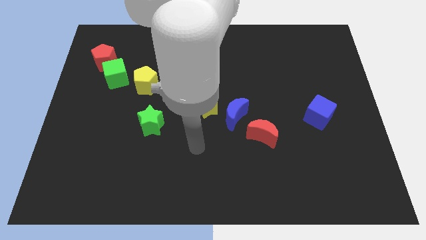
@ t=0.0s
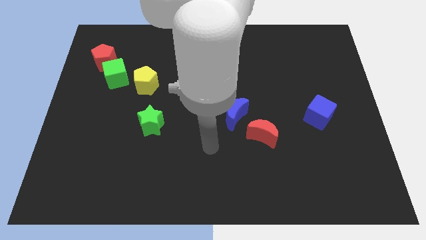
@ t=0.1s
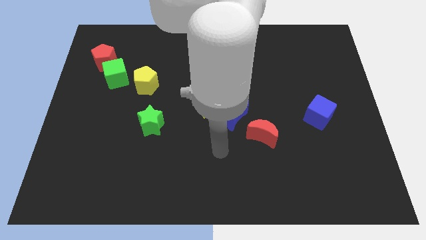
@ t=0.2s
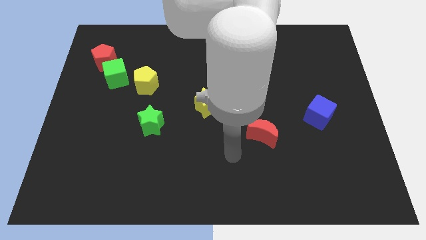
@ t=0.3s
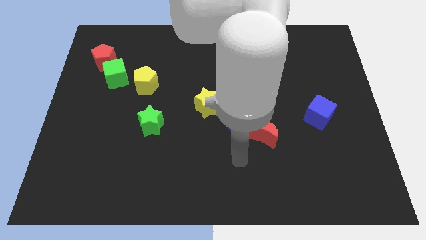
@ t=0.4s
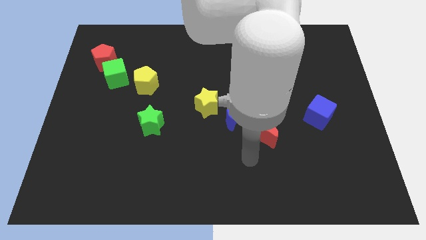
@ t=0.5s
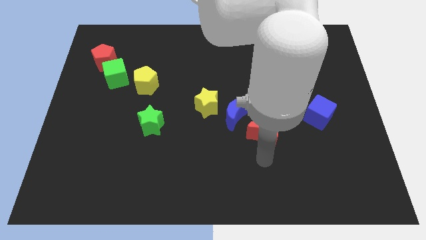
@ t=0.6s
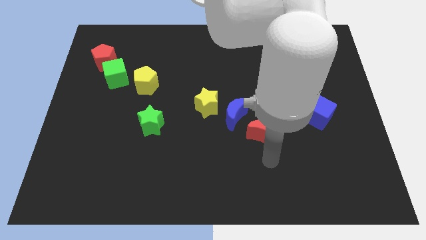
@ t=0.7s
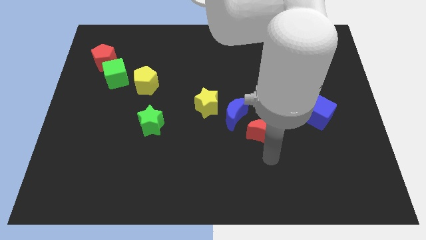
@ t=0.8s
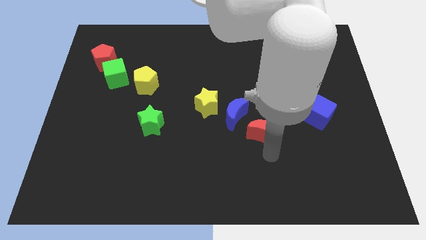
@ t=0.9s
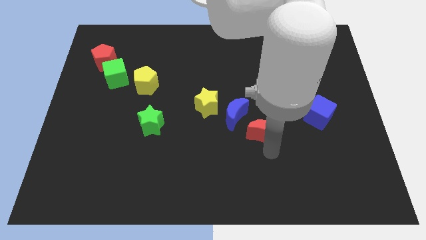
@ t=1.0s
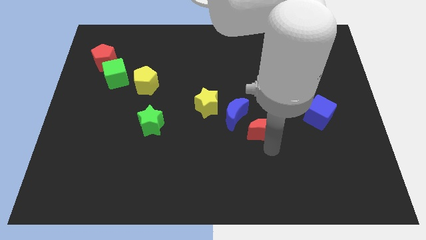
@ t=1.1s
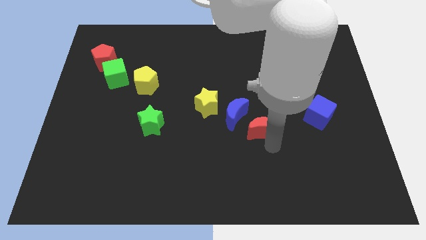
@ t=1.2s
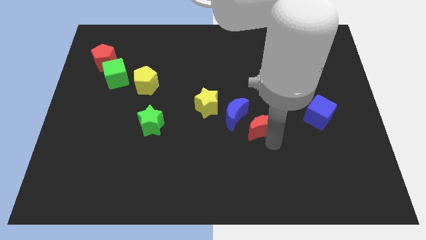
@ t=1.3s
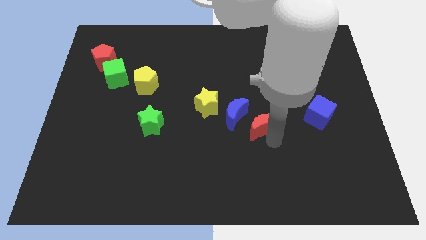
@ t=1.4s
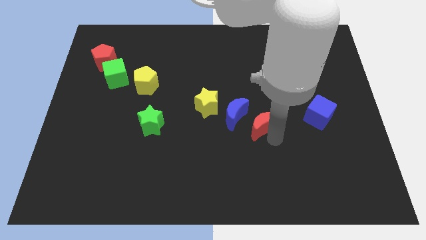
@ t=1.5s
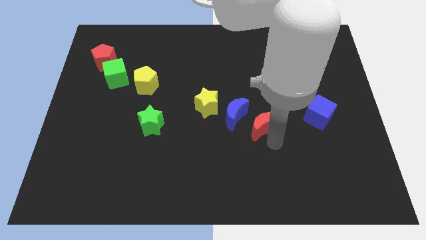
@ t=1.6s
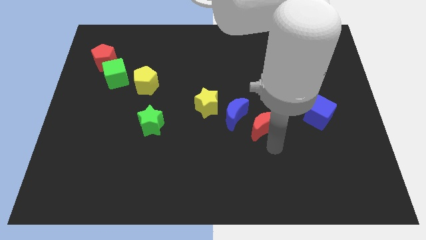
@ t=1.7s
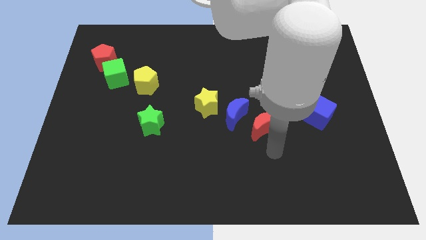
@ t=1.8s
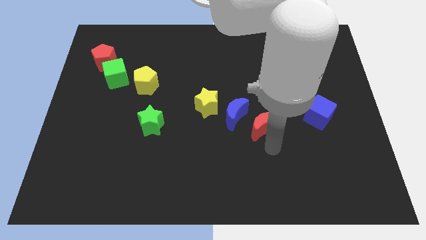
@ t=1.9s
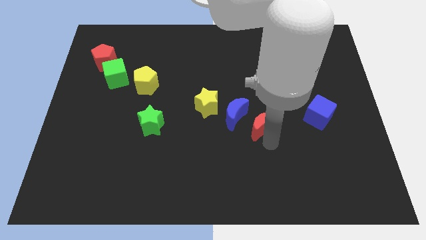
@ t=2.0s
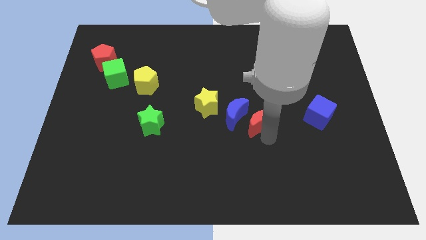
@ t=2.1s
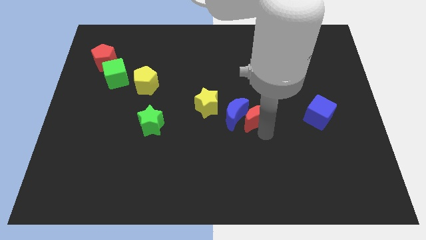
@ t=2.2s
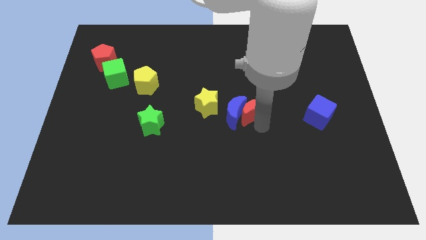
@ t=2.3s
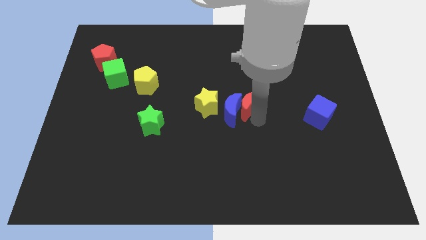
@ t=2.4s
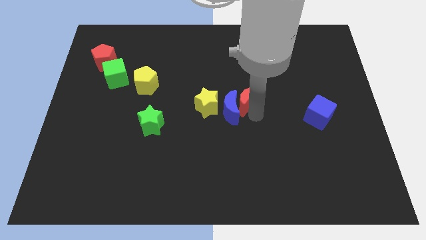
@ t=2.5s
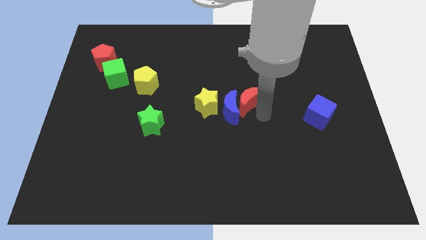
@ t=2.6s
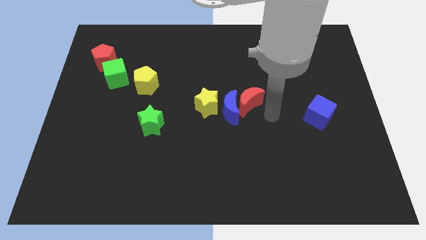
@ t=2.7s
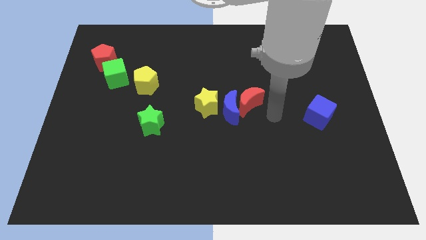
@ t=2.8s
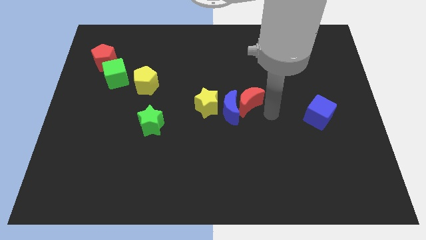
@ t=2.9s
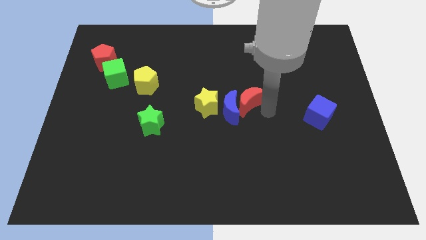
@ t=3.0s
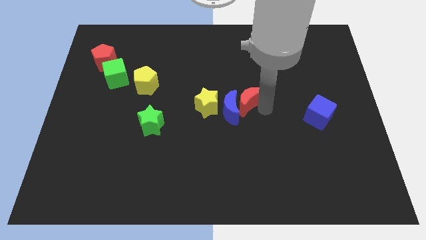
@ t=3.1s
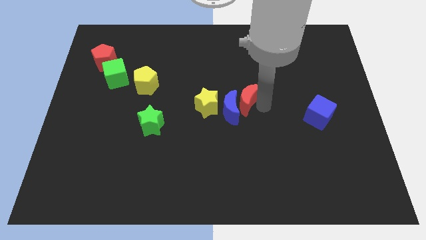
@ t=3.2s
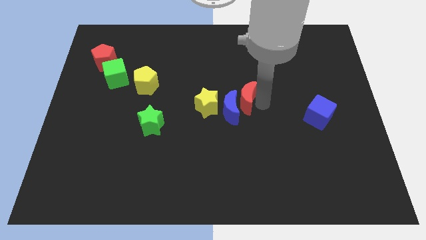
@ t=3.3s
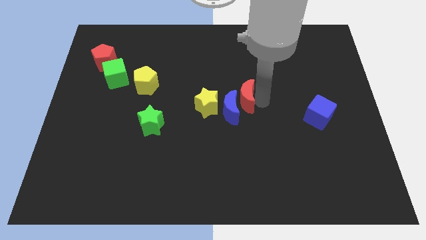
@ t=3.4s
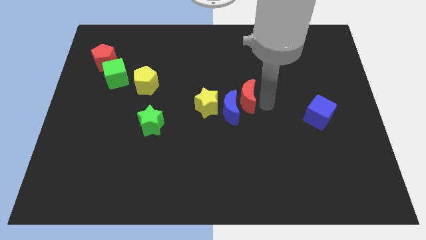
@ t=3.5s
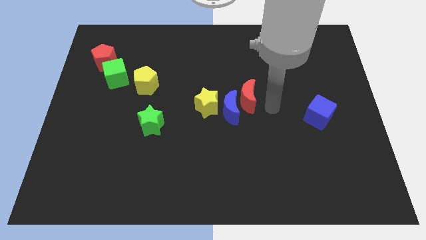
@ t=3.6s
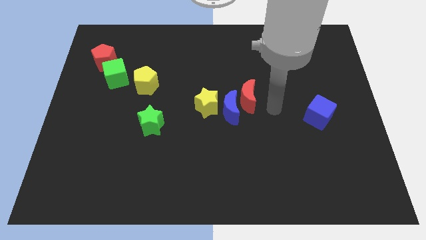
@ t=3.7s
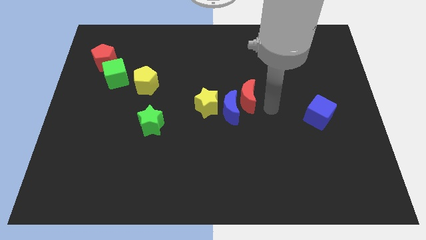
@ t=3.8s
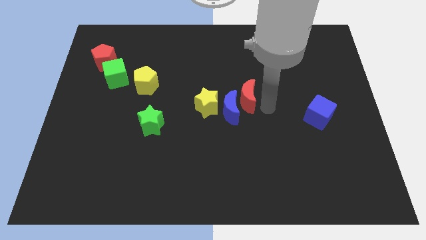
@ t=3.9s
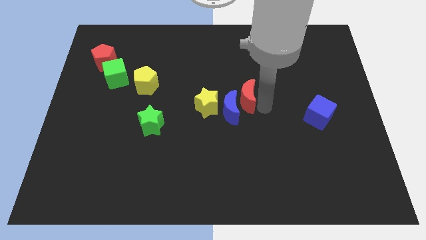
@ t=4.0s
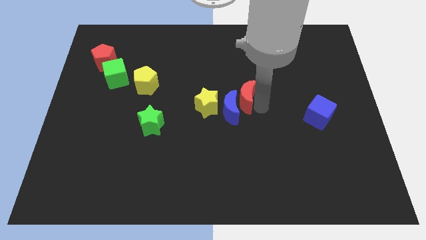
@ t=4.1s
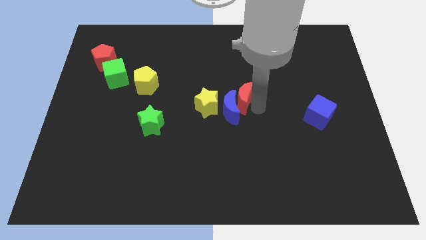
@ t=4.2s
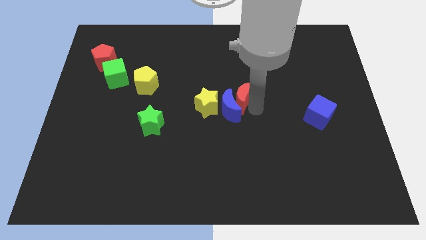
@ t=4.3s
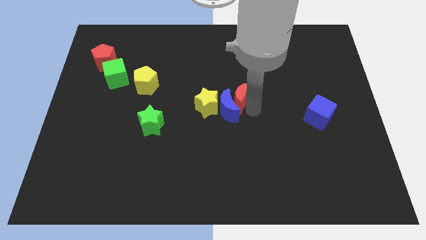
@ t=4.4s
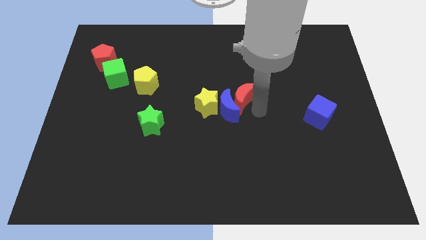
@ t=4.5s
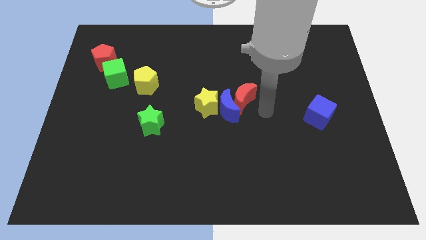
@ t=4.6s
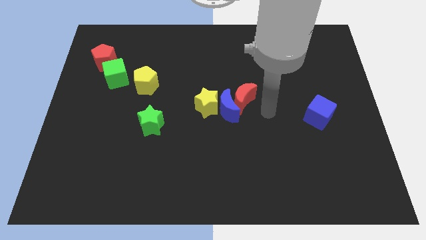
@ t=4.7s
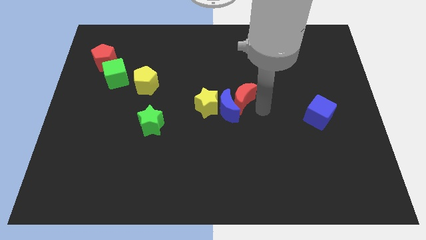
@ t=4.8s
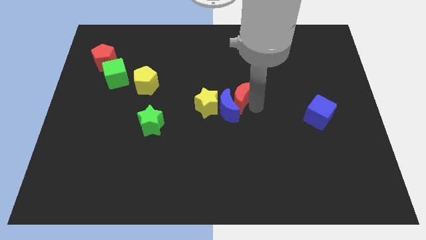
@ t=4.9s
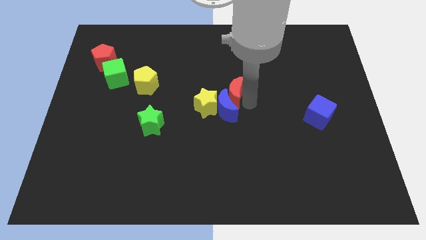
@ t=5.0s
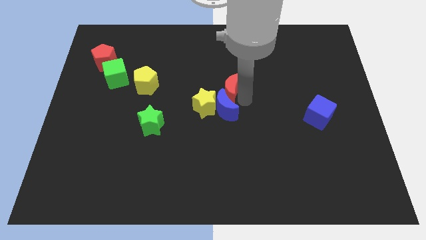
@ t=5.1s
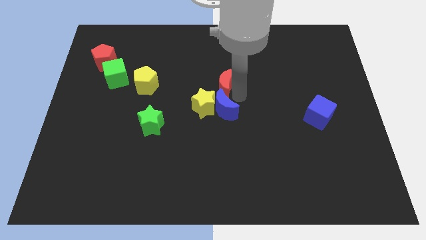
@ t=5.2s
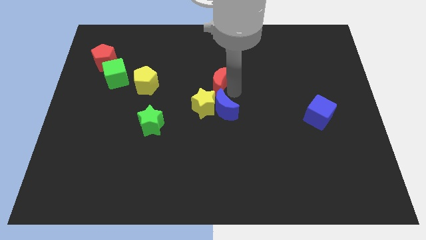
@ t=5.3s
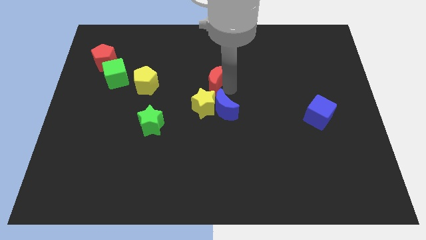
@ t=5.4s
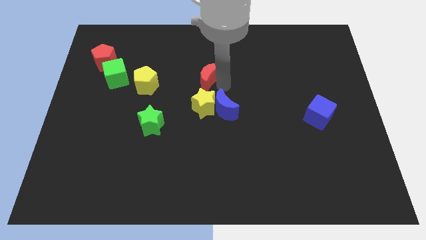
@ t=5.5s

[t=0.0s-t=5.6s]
move the red moon upwards and left diagonally

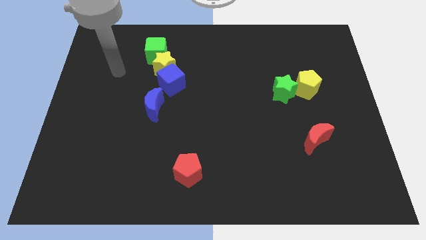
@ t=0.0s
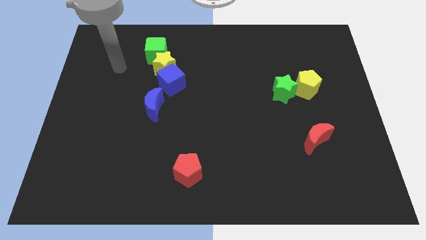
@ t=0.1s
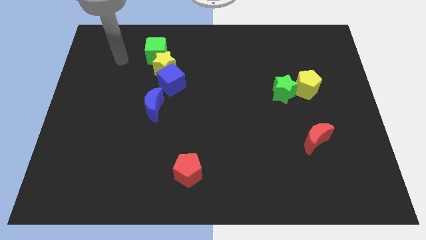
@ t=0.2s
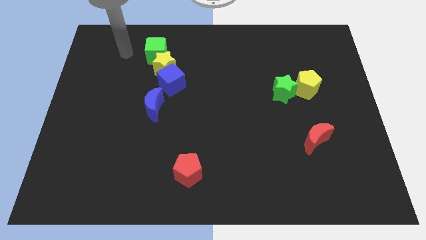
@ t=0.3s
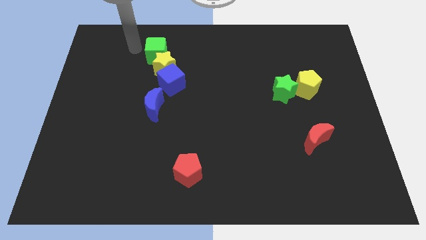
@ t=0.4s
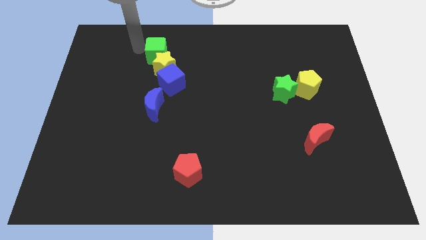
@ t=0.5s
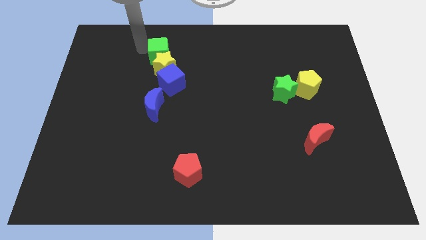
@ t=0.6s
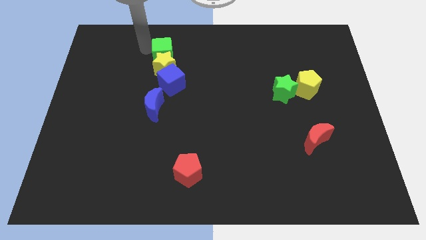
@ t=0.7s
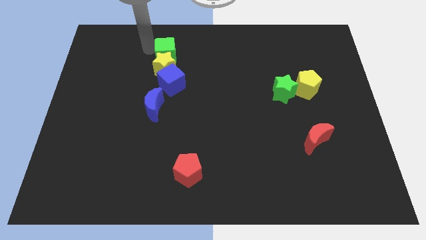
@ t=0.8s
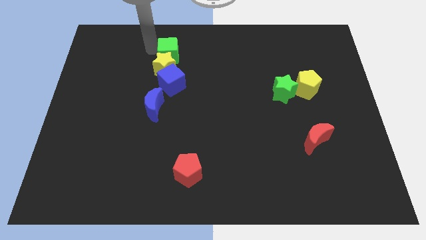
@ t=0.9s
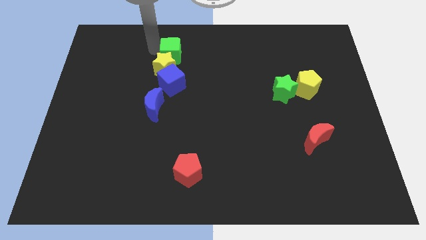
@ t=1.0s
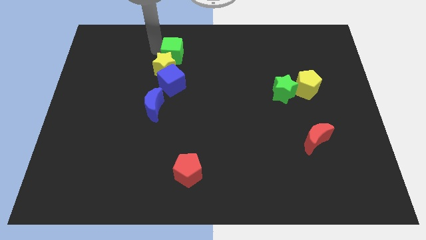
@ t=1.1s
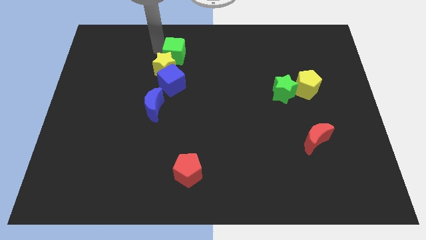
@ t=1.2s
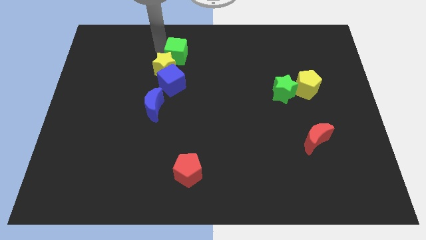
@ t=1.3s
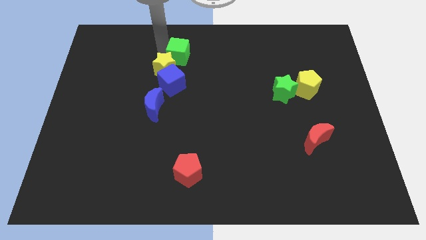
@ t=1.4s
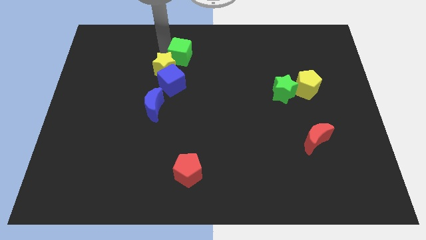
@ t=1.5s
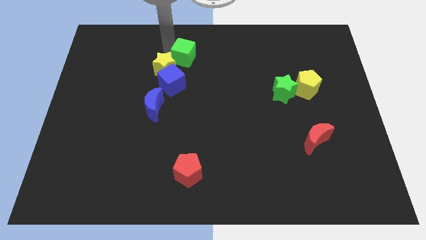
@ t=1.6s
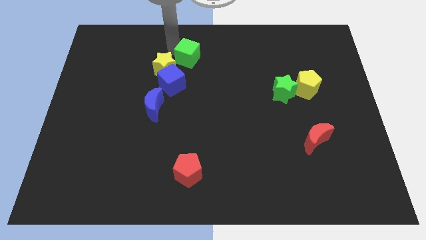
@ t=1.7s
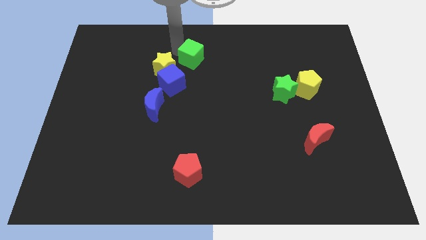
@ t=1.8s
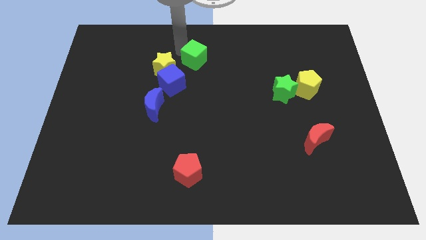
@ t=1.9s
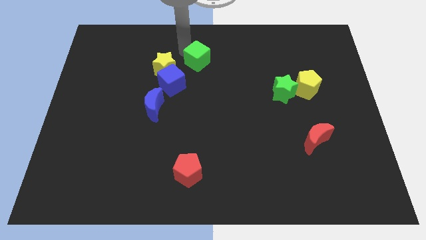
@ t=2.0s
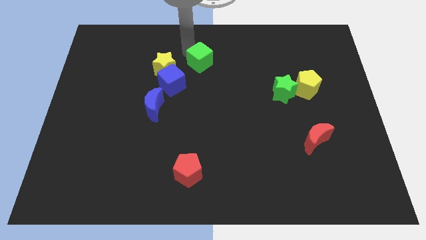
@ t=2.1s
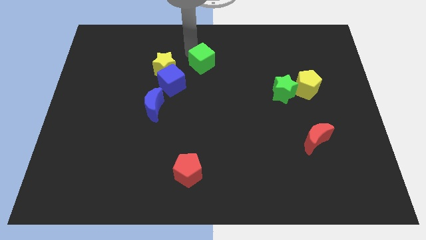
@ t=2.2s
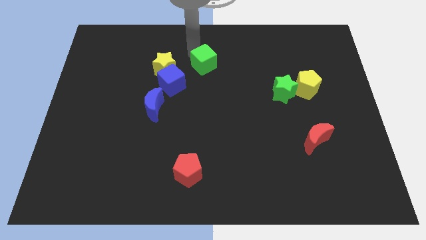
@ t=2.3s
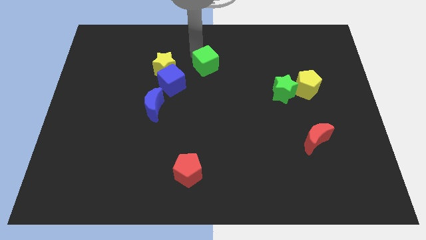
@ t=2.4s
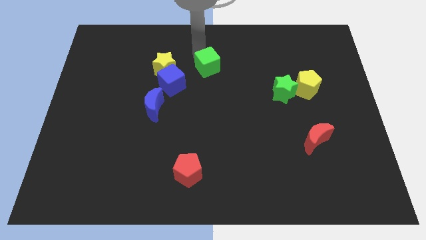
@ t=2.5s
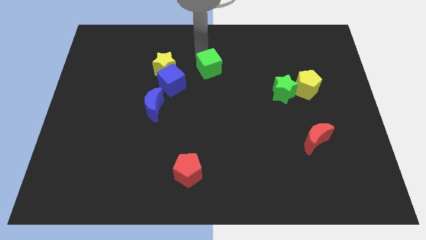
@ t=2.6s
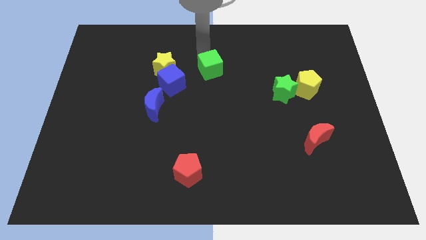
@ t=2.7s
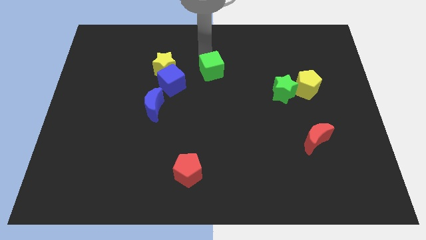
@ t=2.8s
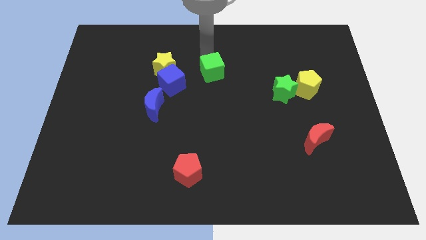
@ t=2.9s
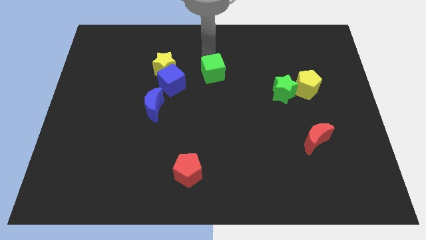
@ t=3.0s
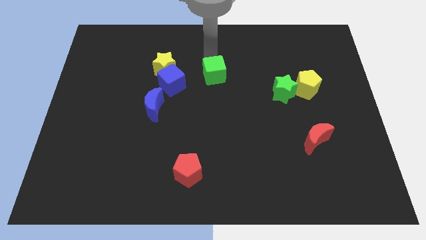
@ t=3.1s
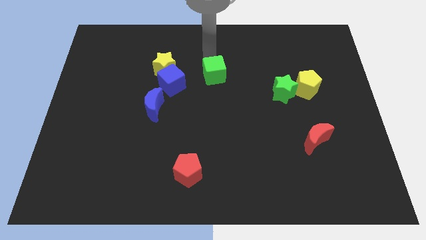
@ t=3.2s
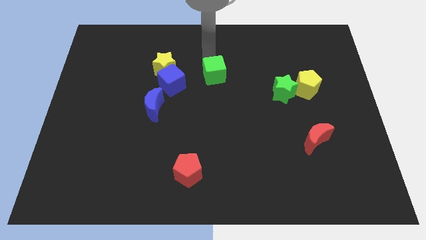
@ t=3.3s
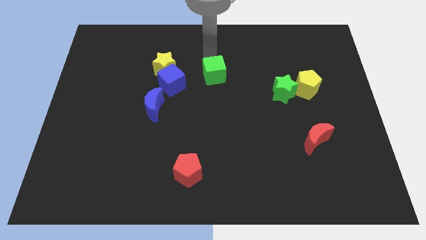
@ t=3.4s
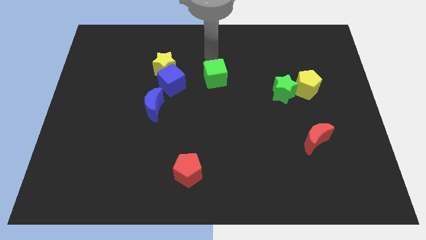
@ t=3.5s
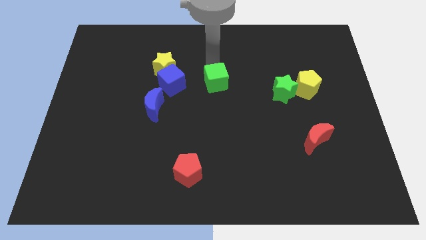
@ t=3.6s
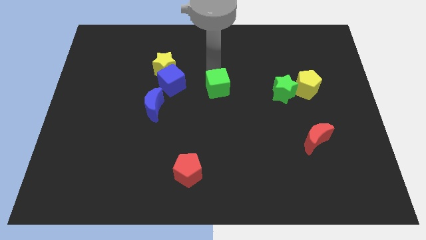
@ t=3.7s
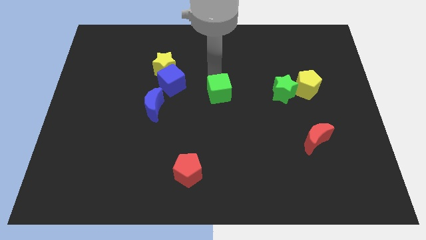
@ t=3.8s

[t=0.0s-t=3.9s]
move the green cube downwards and to the right diagonally
